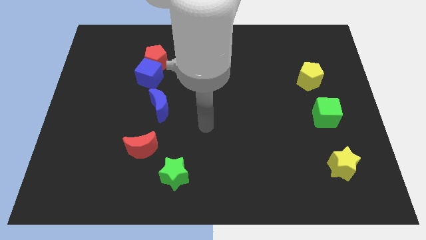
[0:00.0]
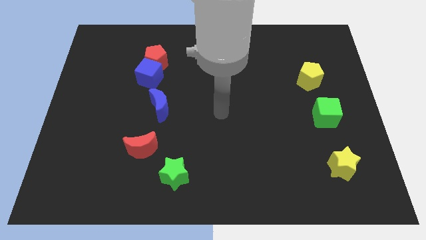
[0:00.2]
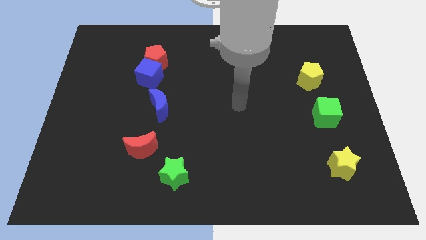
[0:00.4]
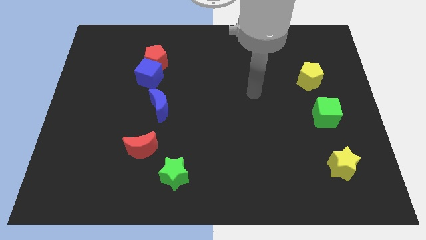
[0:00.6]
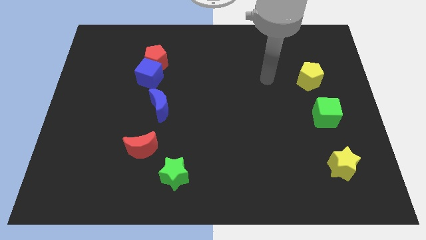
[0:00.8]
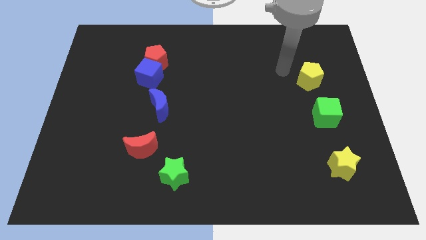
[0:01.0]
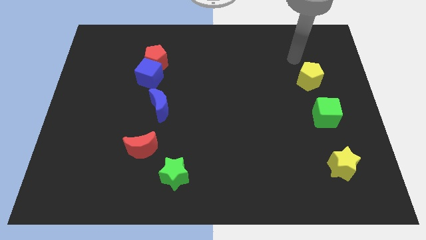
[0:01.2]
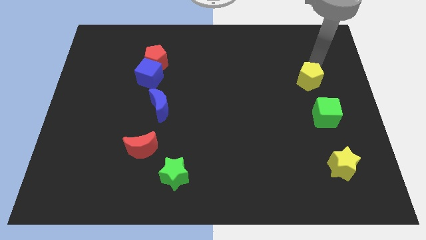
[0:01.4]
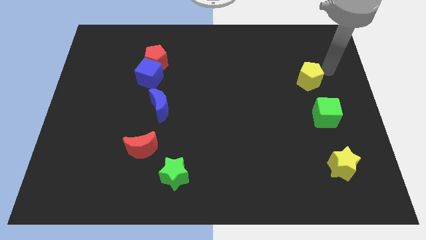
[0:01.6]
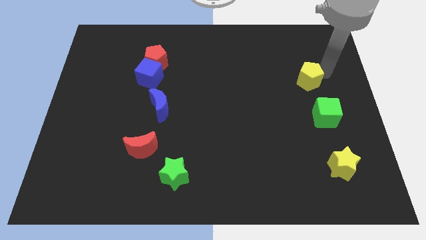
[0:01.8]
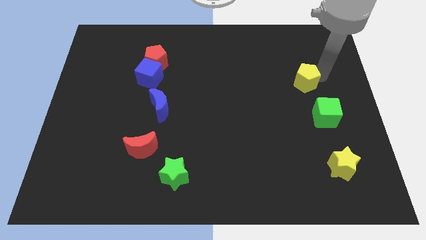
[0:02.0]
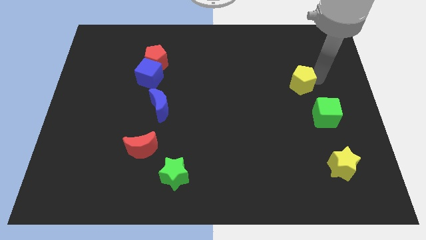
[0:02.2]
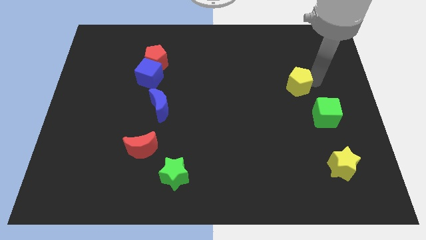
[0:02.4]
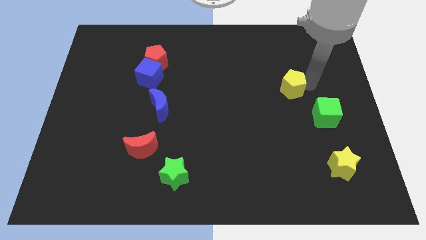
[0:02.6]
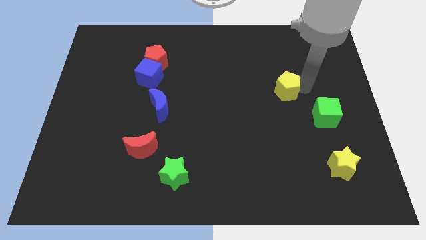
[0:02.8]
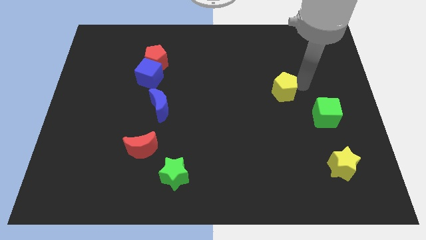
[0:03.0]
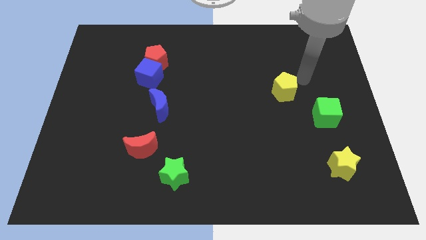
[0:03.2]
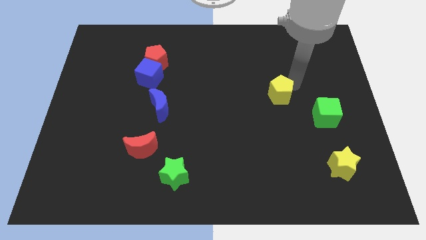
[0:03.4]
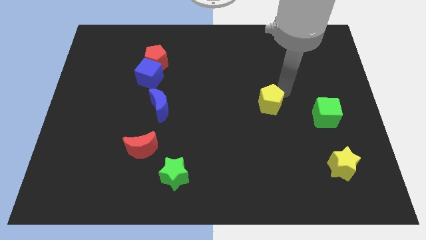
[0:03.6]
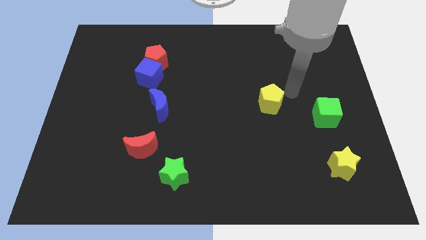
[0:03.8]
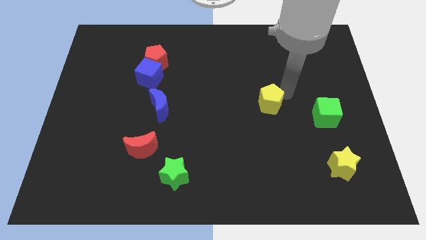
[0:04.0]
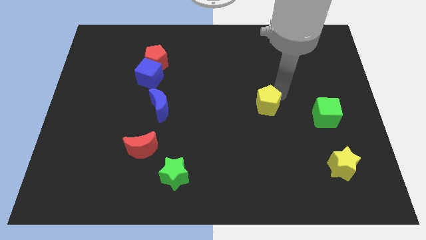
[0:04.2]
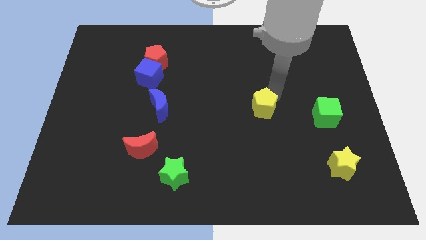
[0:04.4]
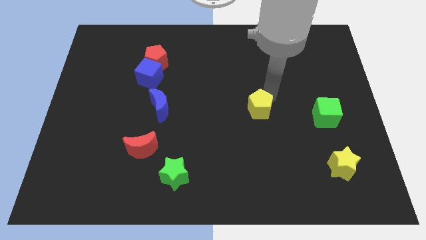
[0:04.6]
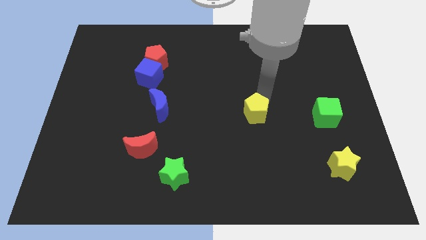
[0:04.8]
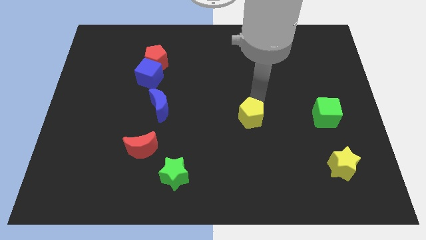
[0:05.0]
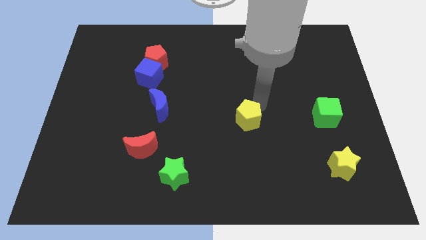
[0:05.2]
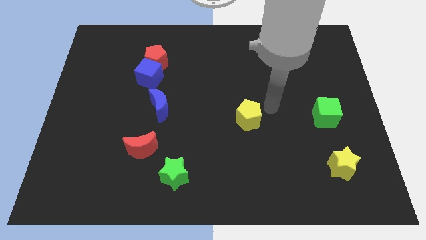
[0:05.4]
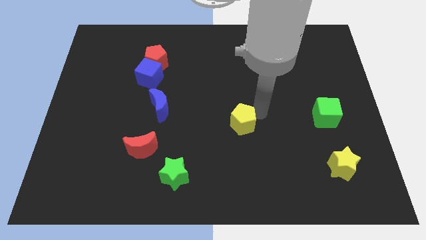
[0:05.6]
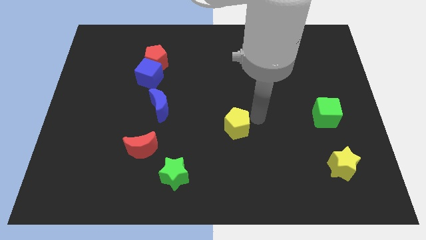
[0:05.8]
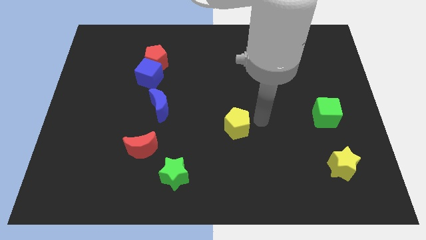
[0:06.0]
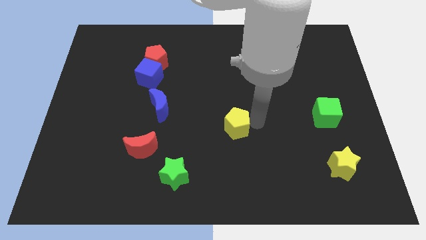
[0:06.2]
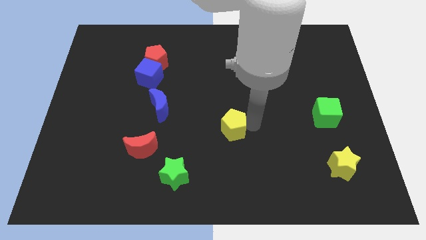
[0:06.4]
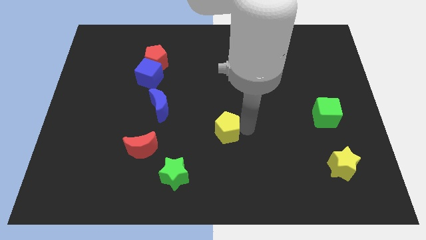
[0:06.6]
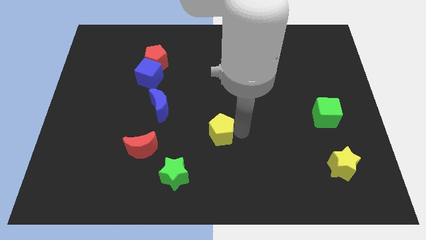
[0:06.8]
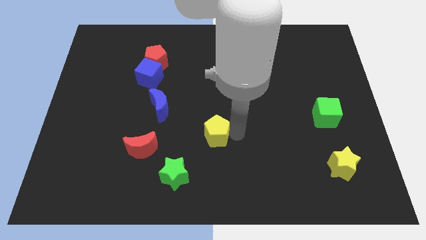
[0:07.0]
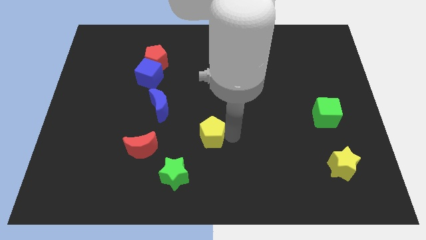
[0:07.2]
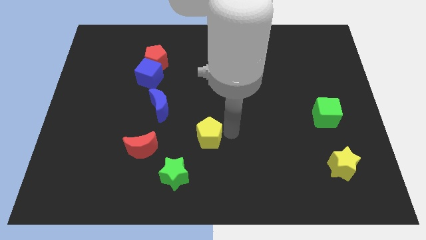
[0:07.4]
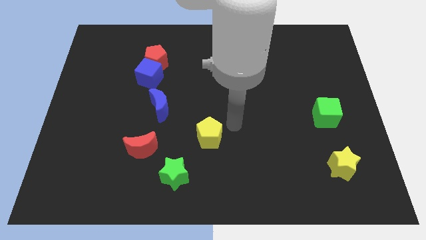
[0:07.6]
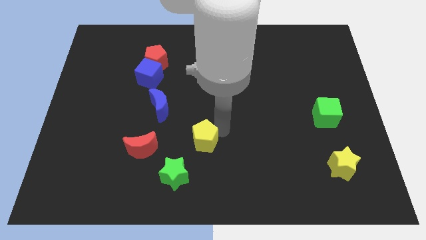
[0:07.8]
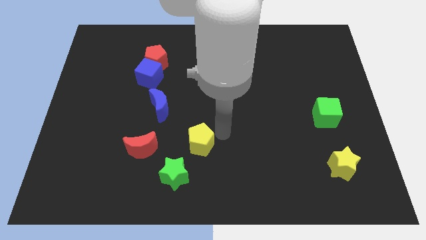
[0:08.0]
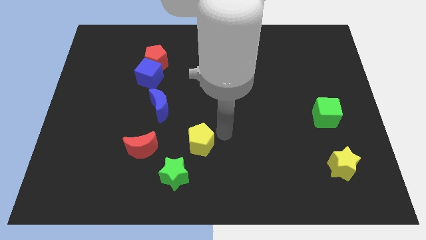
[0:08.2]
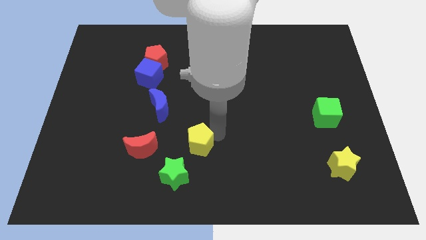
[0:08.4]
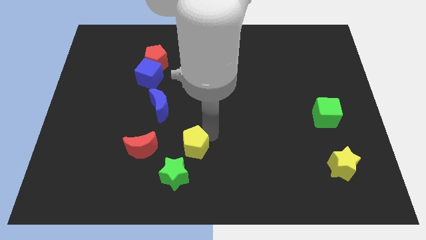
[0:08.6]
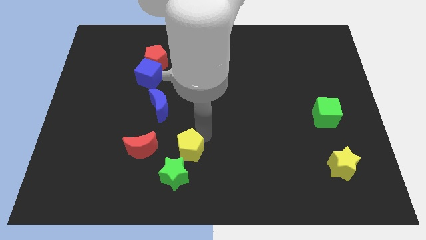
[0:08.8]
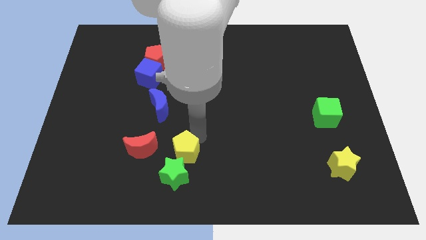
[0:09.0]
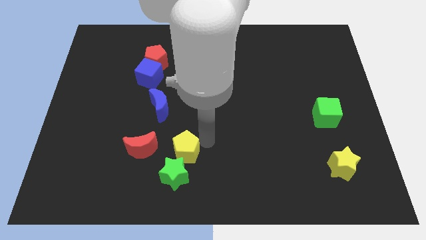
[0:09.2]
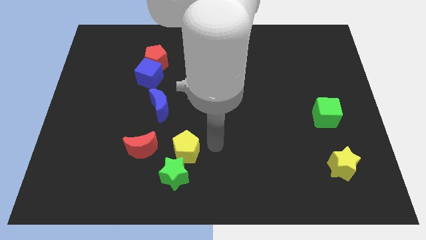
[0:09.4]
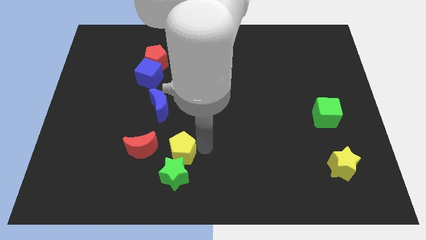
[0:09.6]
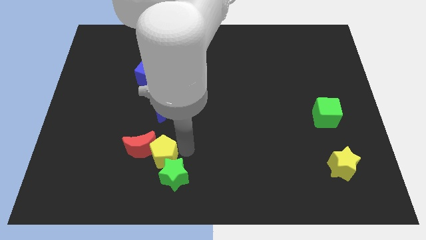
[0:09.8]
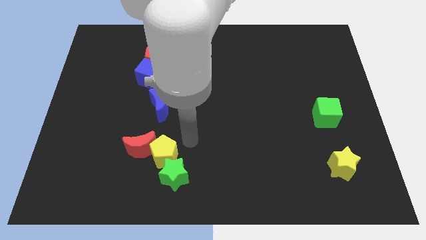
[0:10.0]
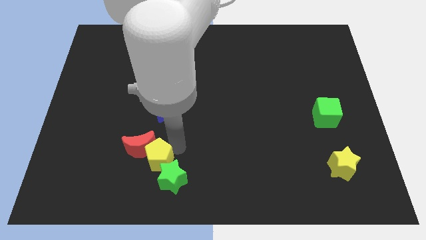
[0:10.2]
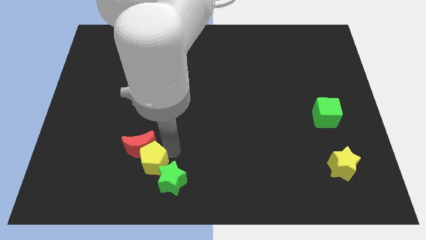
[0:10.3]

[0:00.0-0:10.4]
push the yellow pentagon to the left of the green star

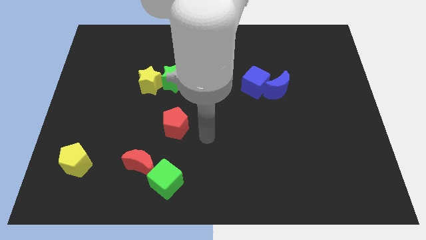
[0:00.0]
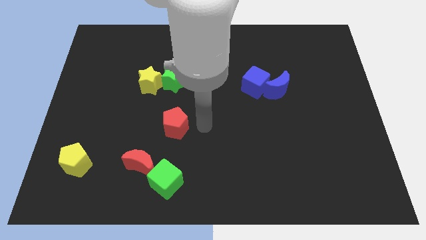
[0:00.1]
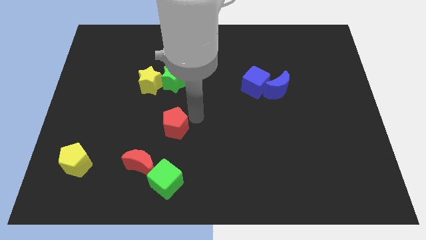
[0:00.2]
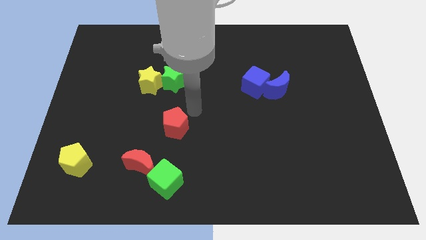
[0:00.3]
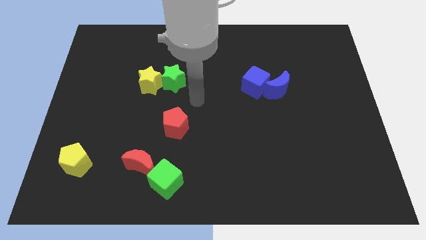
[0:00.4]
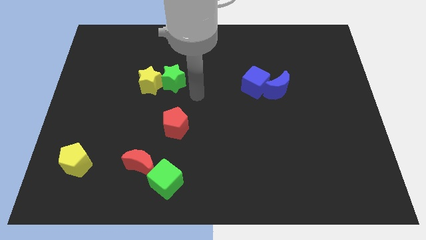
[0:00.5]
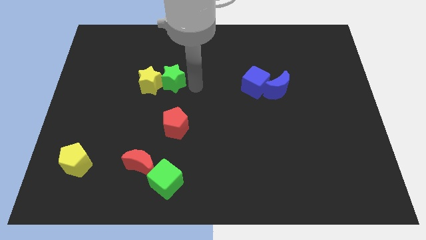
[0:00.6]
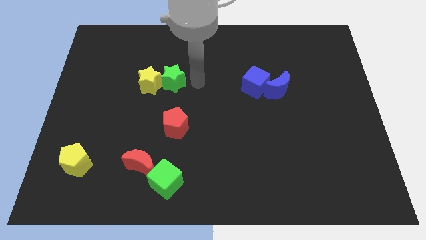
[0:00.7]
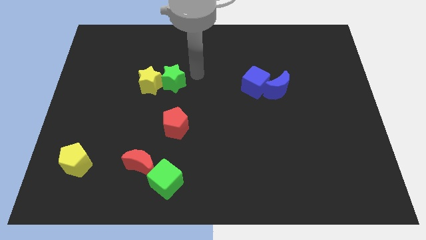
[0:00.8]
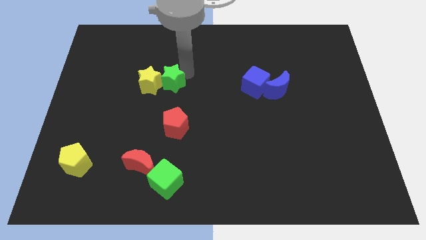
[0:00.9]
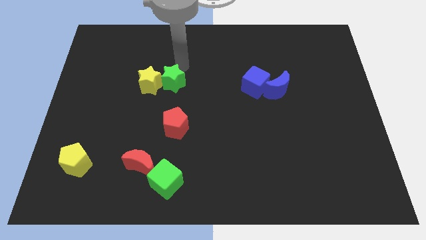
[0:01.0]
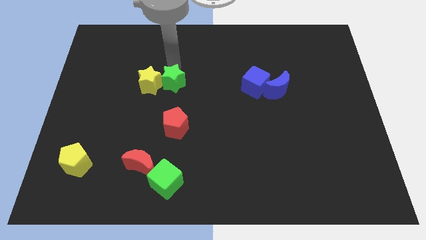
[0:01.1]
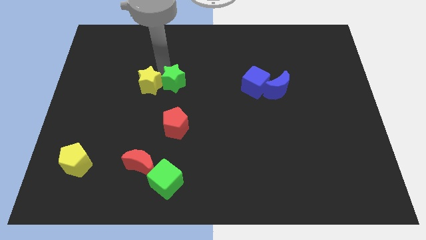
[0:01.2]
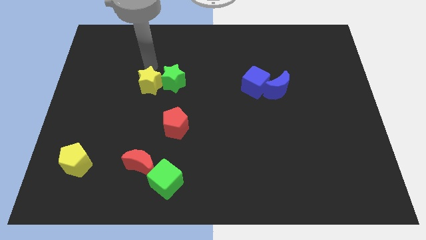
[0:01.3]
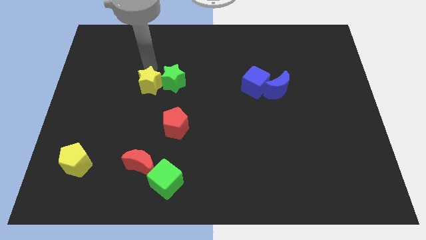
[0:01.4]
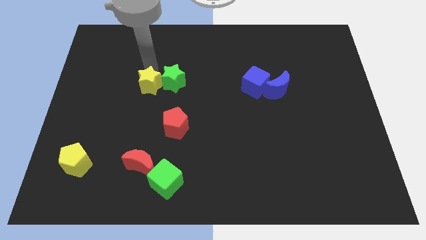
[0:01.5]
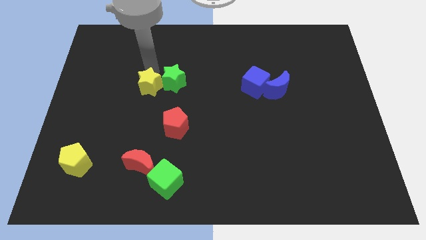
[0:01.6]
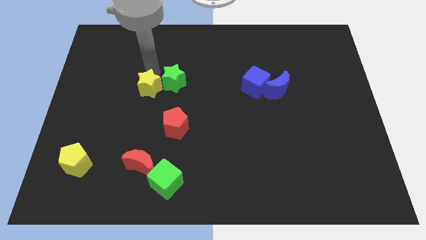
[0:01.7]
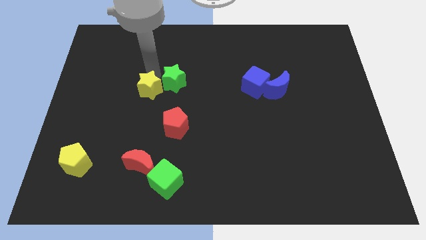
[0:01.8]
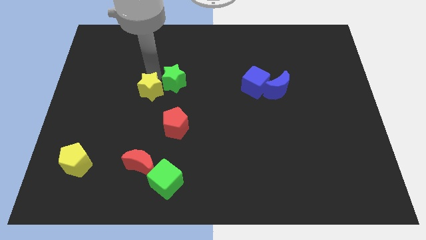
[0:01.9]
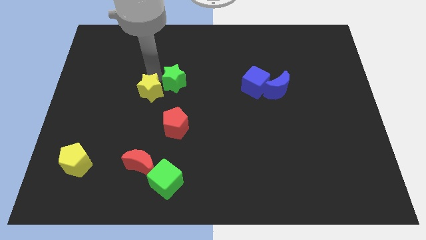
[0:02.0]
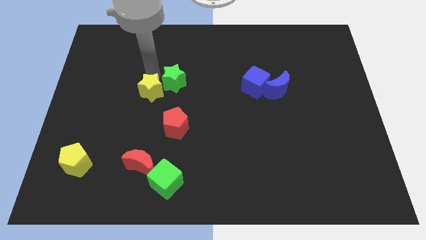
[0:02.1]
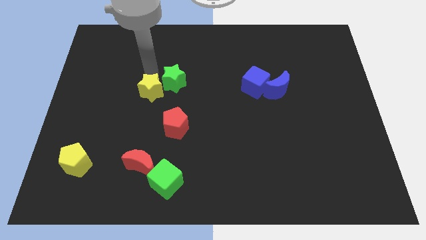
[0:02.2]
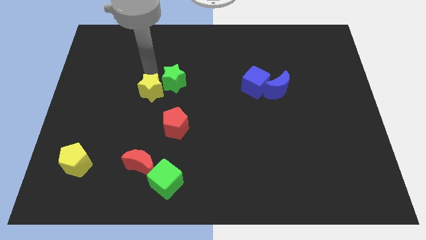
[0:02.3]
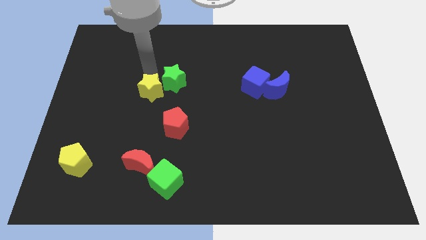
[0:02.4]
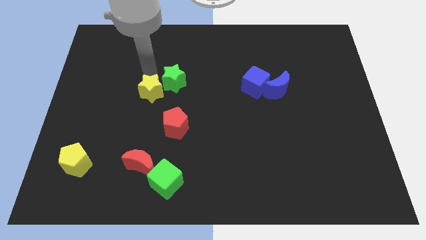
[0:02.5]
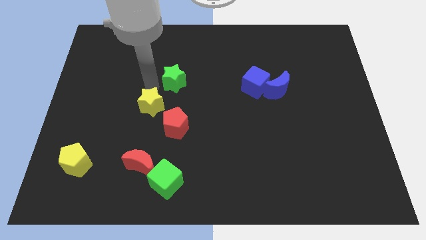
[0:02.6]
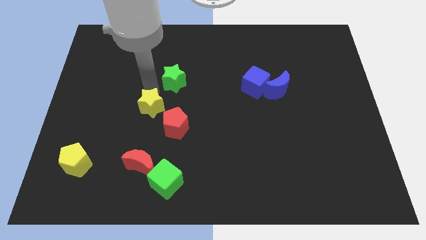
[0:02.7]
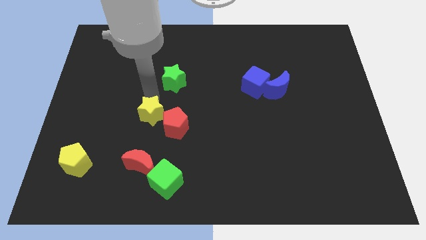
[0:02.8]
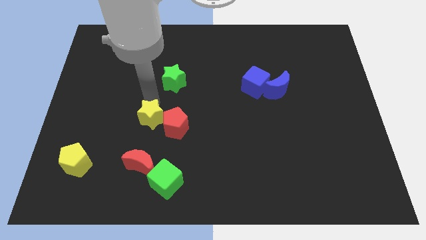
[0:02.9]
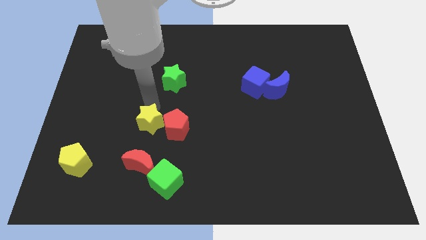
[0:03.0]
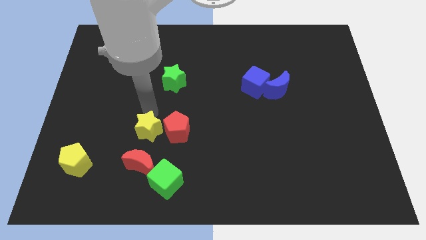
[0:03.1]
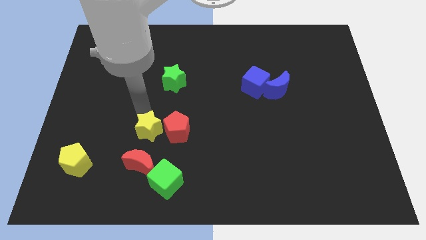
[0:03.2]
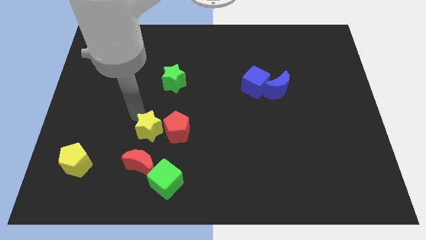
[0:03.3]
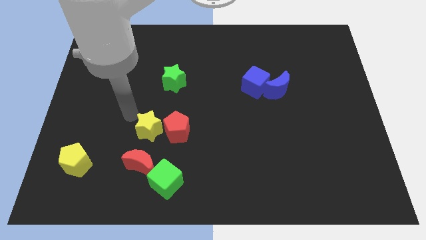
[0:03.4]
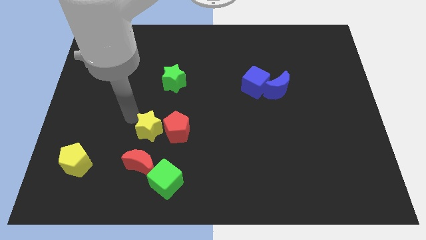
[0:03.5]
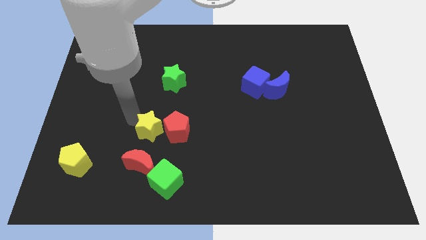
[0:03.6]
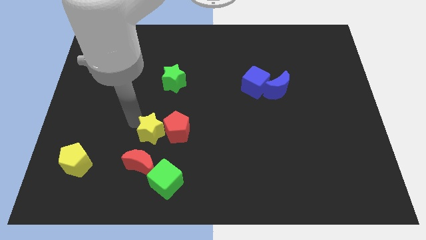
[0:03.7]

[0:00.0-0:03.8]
put the yellow star to the top right of the red moon
